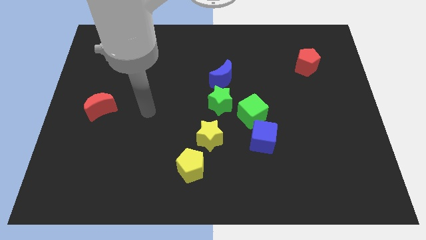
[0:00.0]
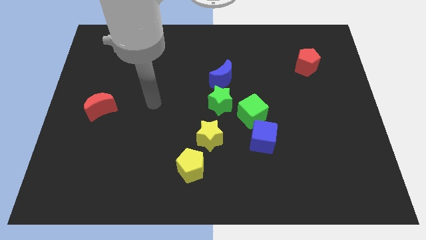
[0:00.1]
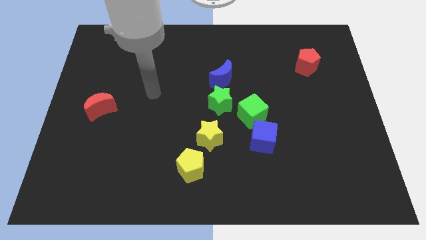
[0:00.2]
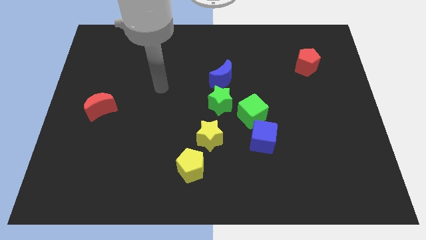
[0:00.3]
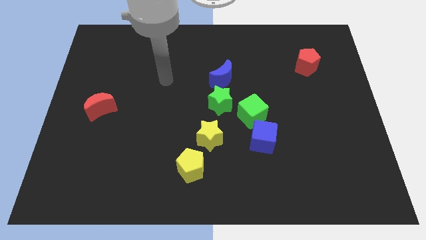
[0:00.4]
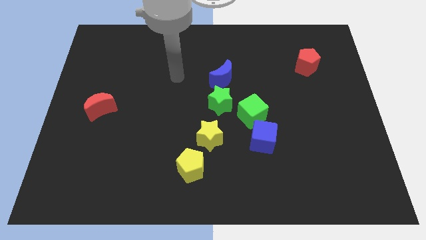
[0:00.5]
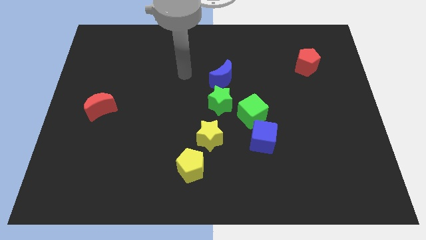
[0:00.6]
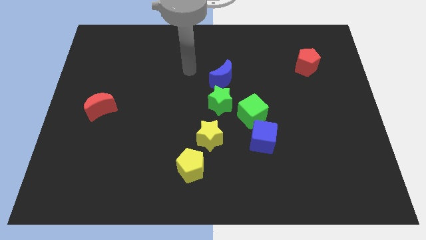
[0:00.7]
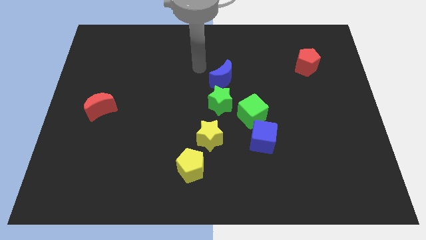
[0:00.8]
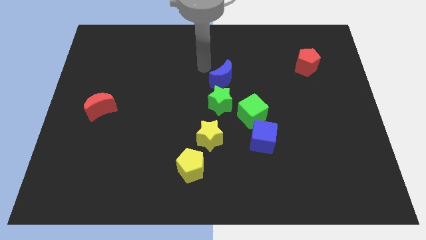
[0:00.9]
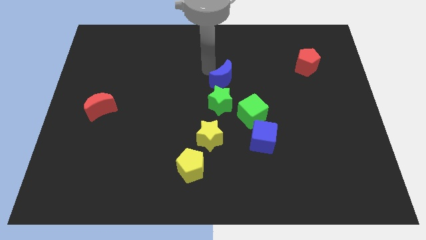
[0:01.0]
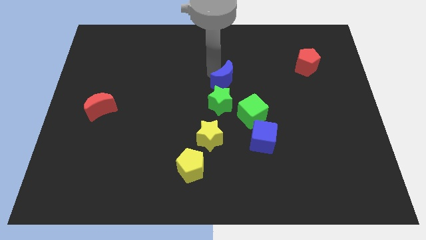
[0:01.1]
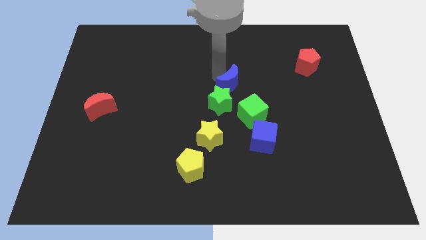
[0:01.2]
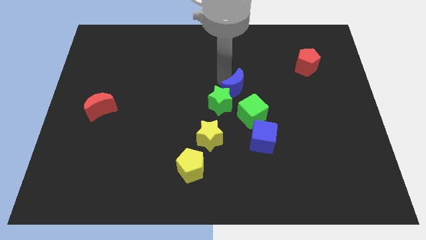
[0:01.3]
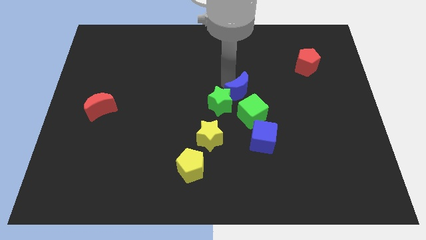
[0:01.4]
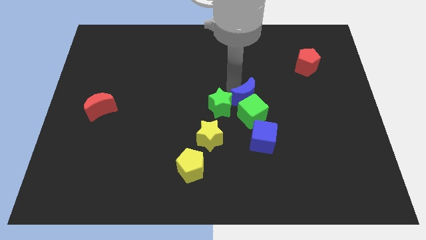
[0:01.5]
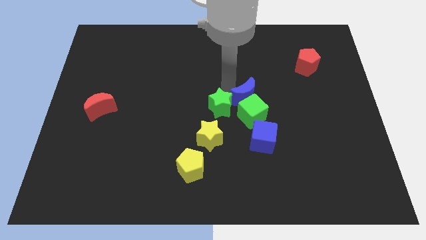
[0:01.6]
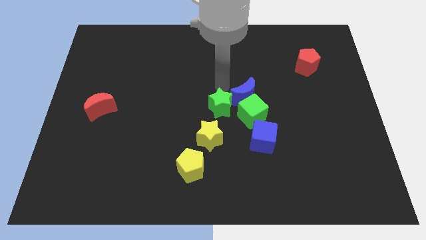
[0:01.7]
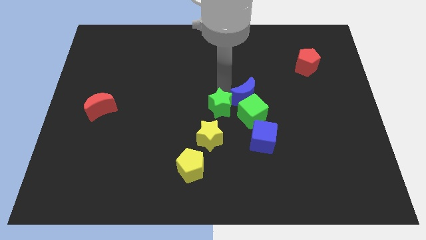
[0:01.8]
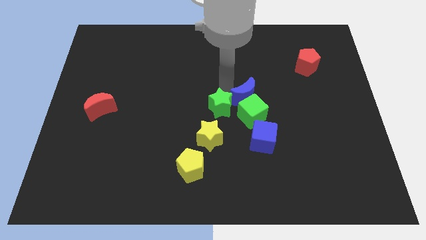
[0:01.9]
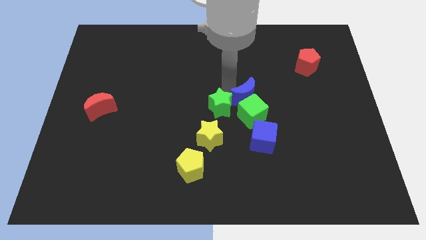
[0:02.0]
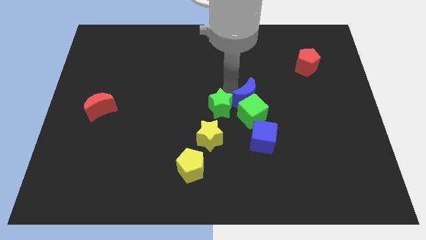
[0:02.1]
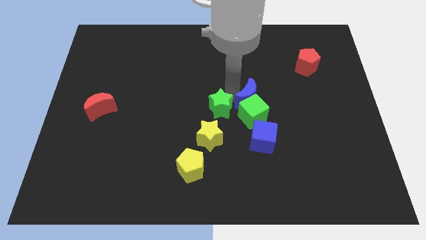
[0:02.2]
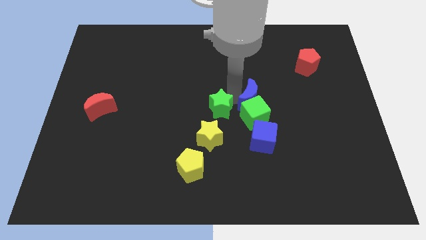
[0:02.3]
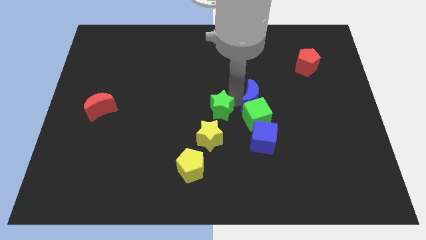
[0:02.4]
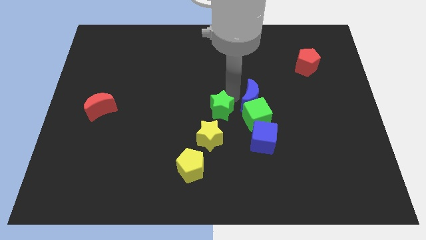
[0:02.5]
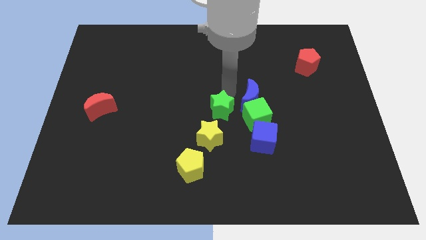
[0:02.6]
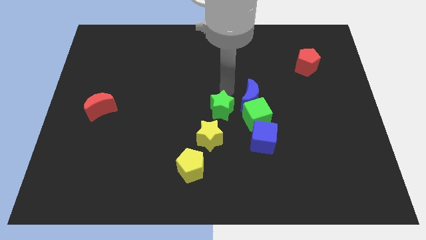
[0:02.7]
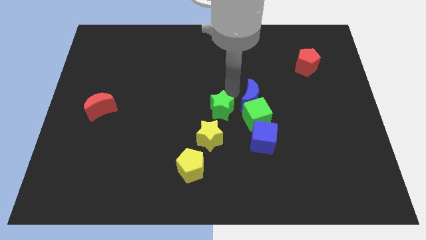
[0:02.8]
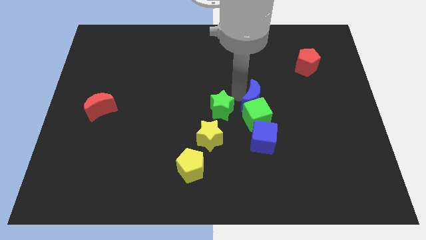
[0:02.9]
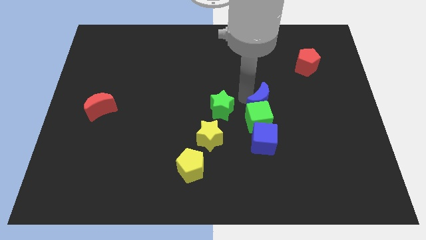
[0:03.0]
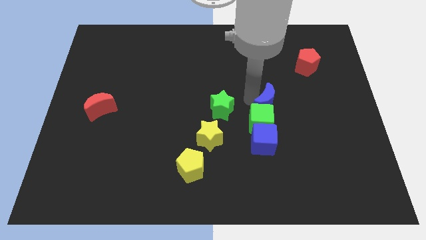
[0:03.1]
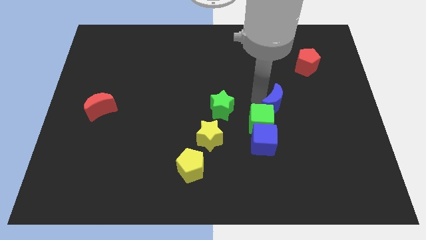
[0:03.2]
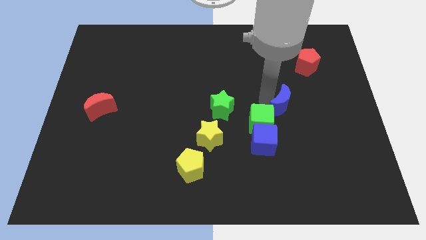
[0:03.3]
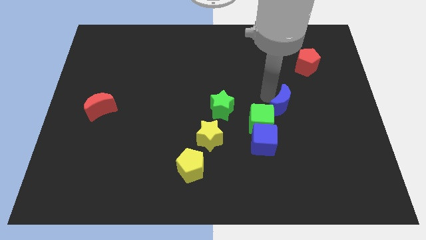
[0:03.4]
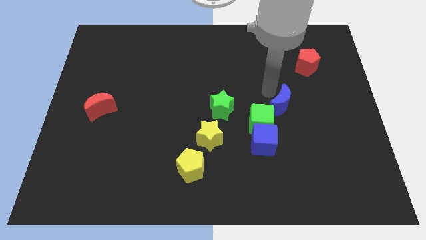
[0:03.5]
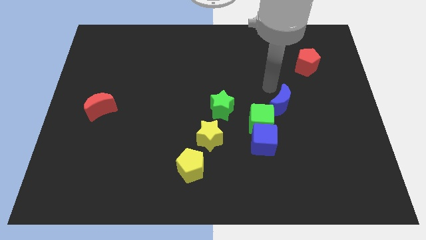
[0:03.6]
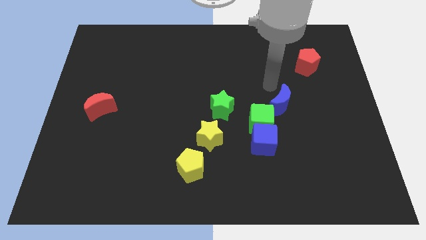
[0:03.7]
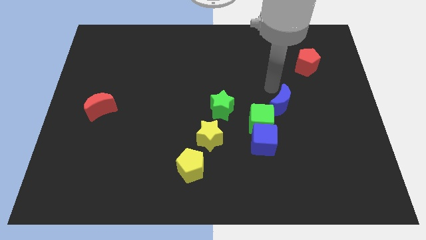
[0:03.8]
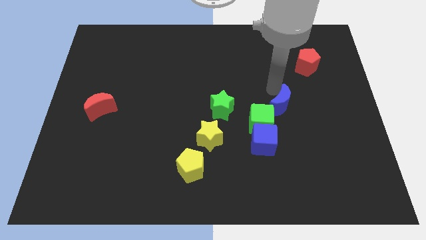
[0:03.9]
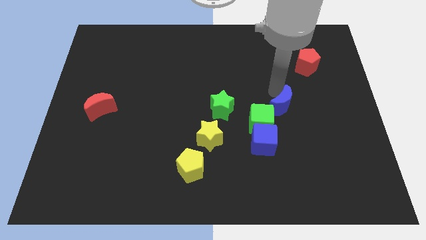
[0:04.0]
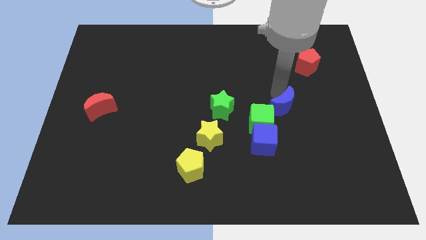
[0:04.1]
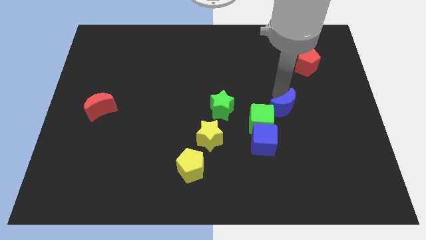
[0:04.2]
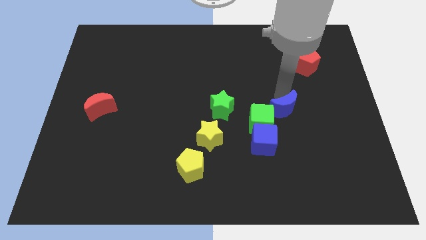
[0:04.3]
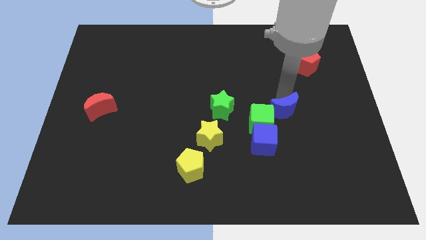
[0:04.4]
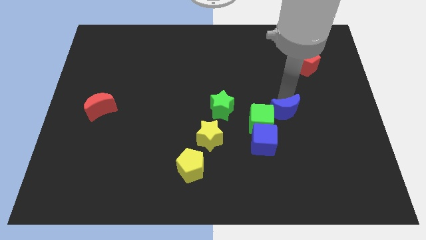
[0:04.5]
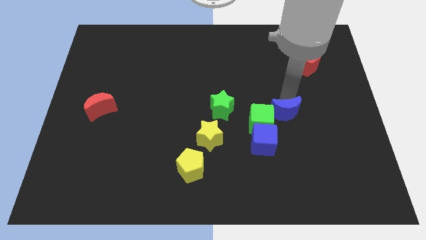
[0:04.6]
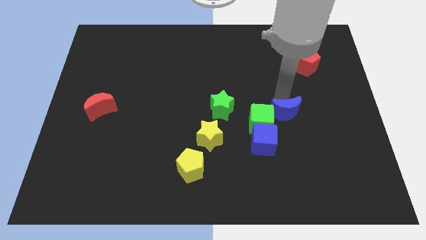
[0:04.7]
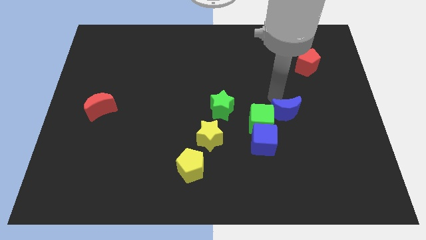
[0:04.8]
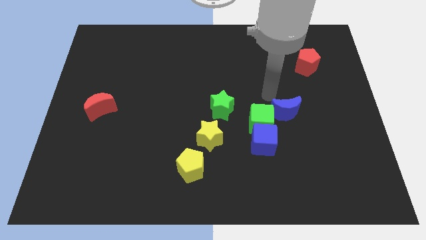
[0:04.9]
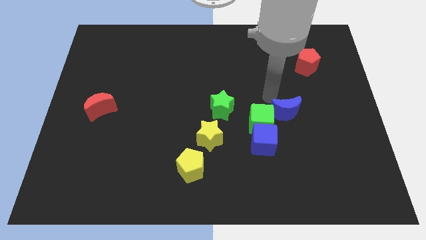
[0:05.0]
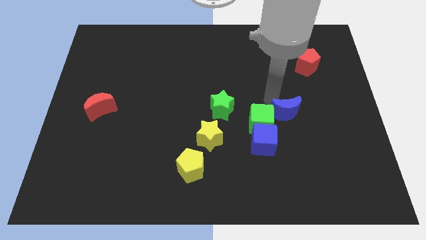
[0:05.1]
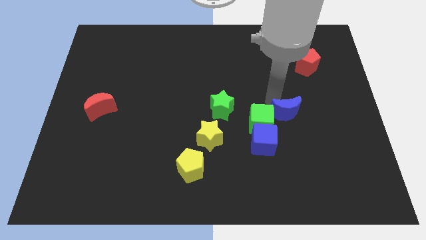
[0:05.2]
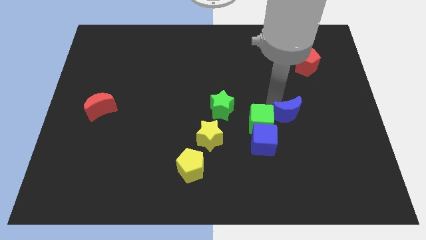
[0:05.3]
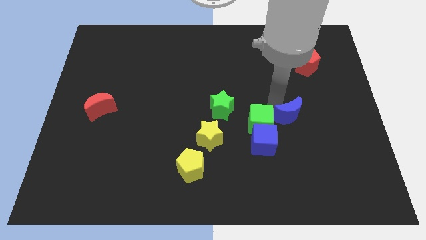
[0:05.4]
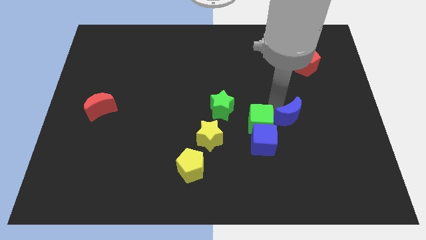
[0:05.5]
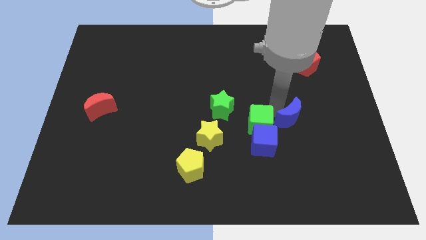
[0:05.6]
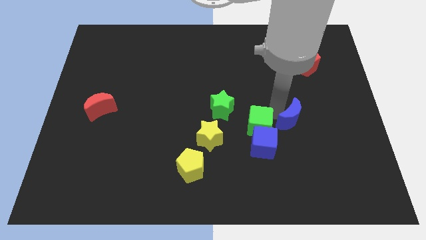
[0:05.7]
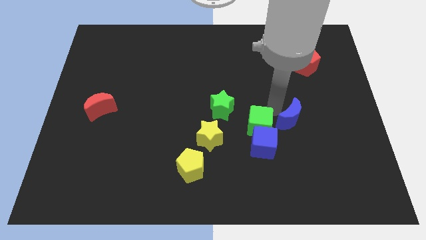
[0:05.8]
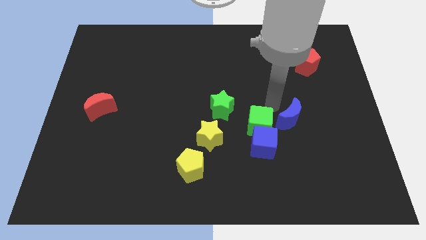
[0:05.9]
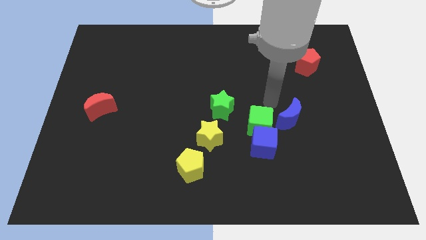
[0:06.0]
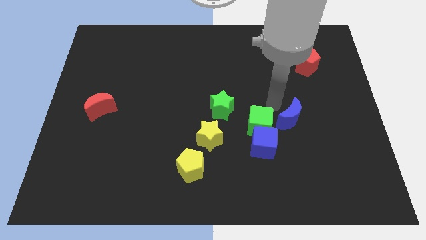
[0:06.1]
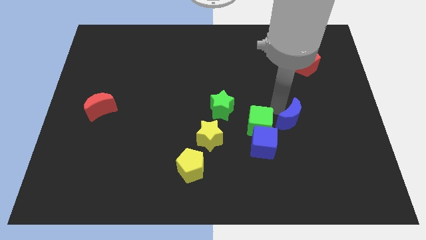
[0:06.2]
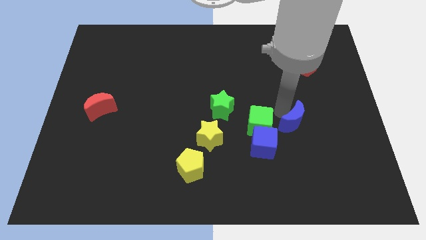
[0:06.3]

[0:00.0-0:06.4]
move the blue moon down and right diagonally

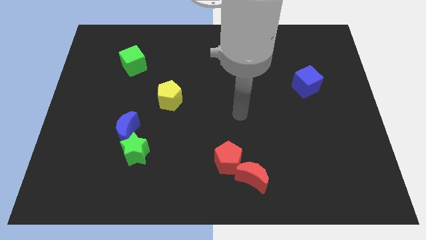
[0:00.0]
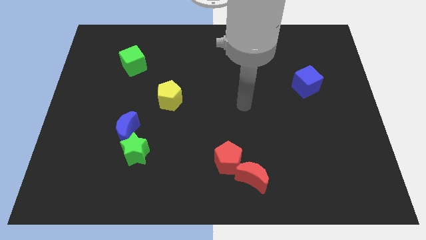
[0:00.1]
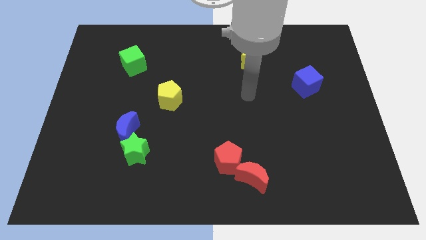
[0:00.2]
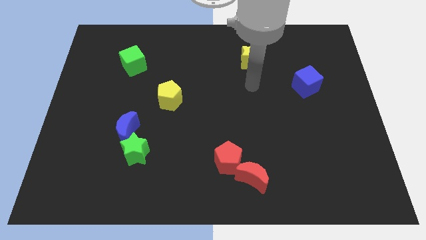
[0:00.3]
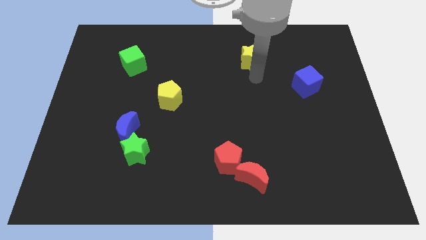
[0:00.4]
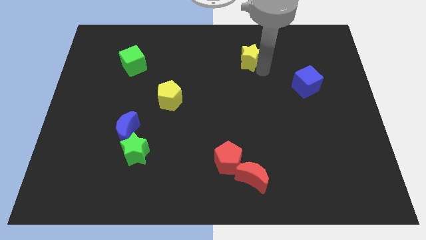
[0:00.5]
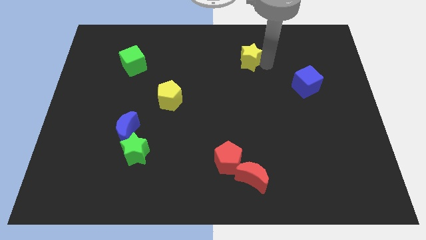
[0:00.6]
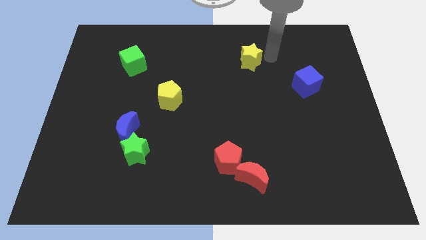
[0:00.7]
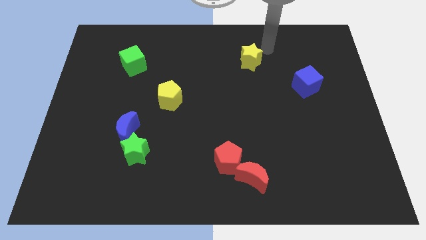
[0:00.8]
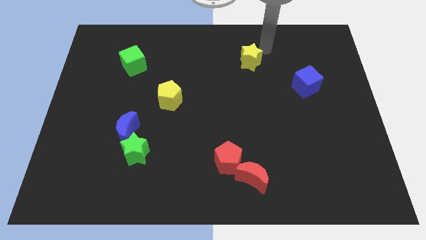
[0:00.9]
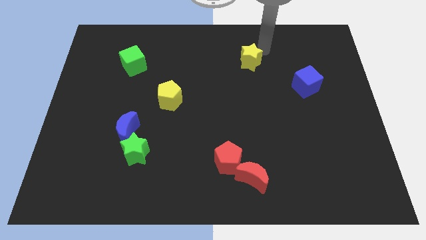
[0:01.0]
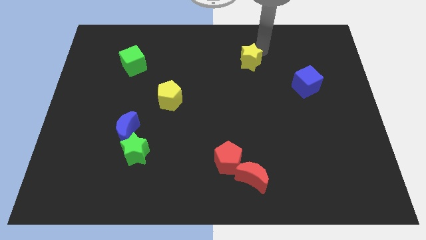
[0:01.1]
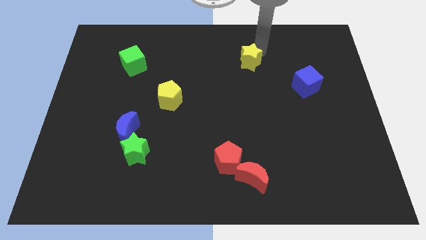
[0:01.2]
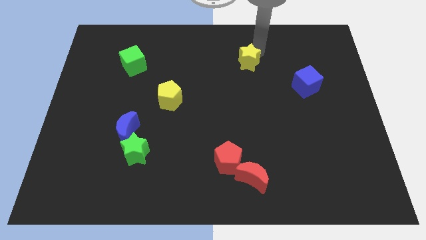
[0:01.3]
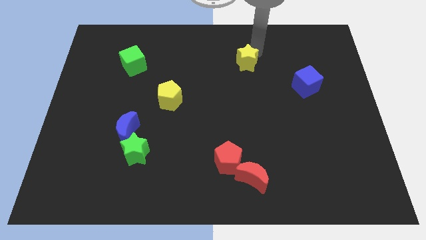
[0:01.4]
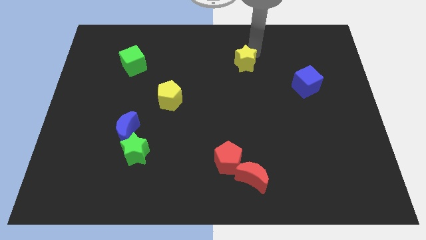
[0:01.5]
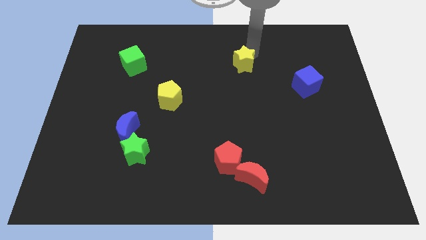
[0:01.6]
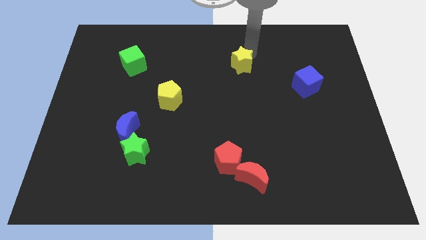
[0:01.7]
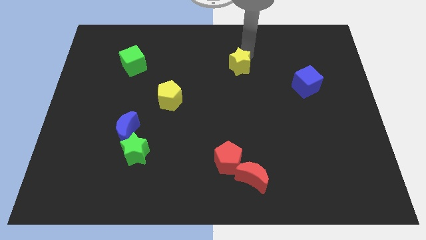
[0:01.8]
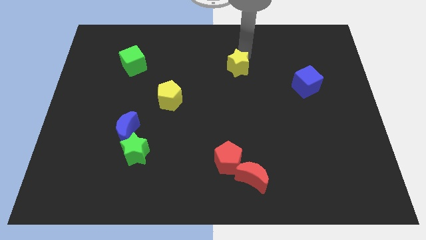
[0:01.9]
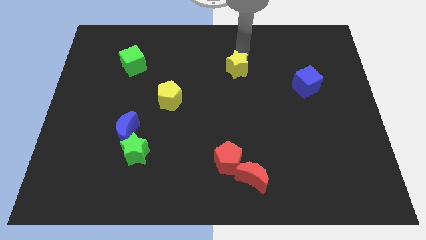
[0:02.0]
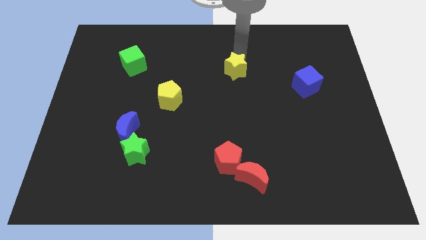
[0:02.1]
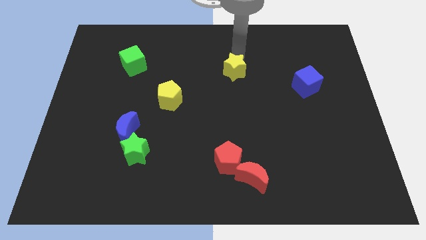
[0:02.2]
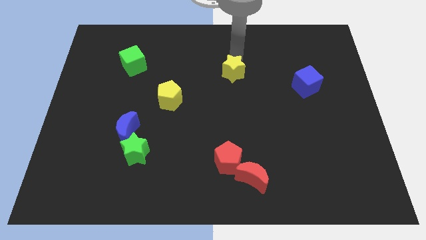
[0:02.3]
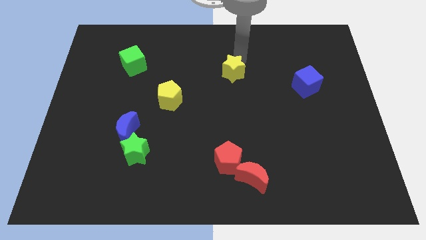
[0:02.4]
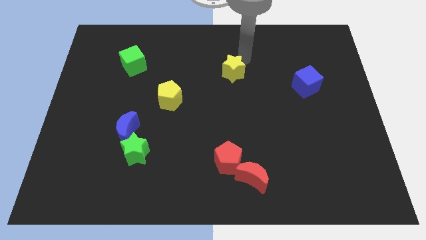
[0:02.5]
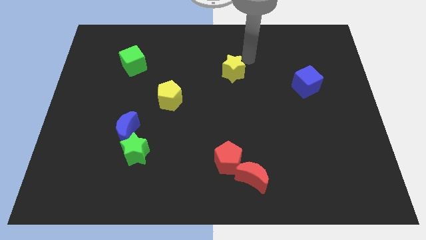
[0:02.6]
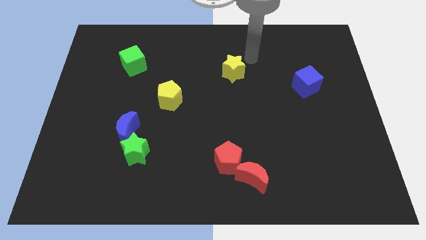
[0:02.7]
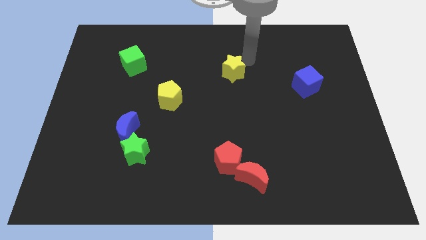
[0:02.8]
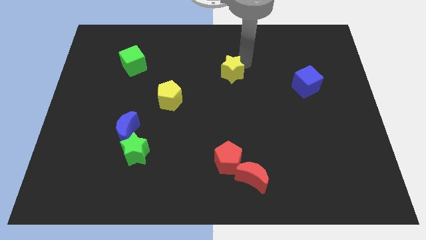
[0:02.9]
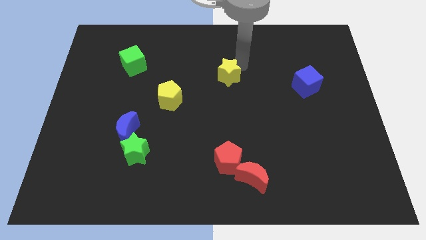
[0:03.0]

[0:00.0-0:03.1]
slide the yellow star down and to the left a little bit
